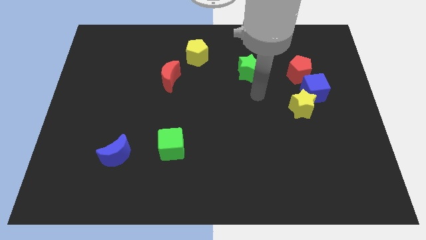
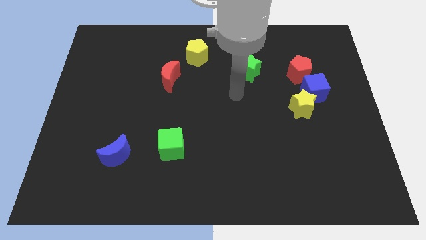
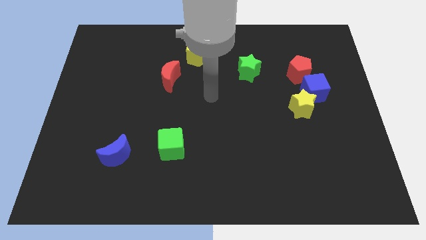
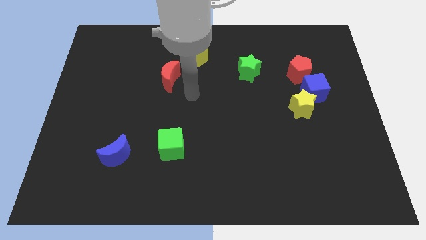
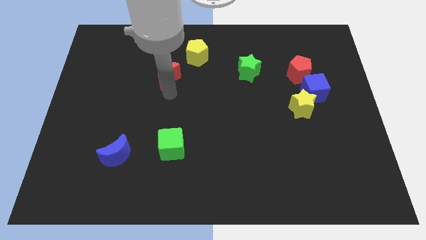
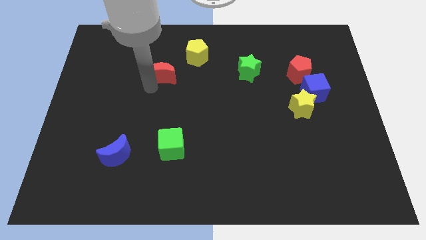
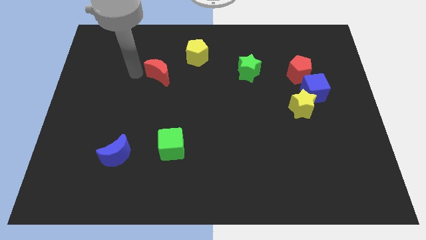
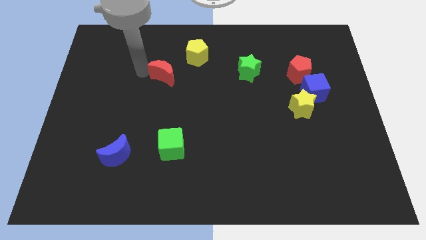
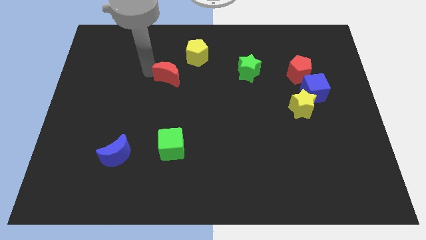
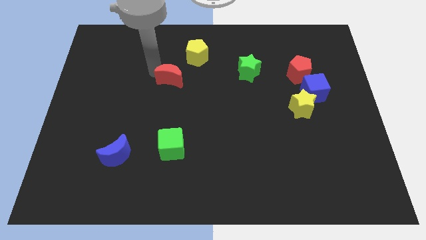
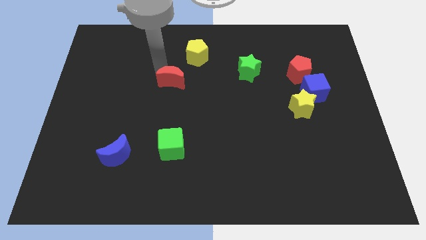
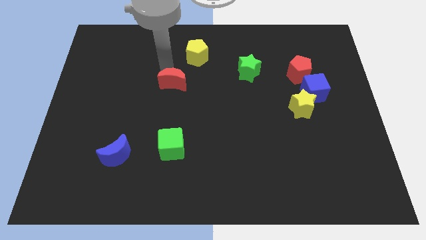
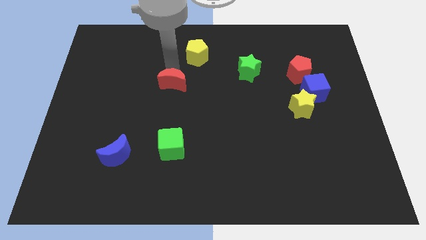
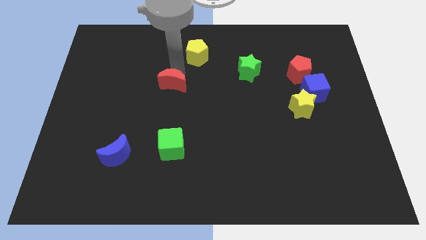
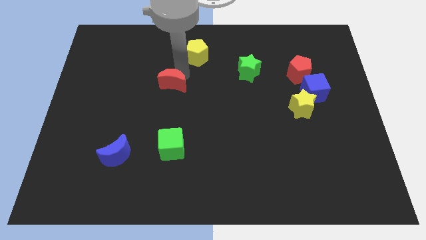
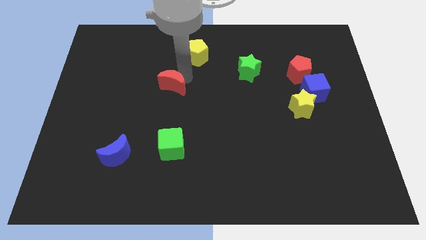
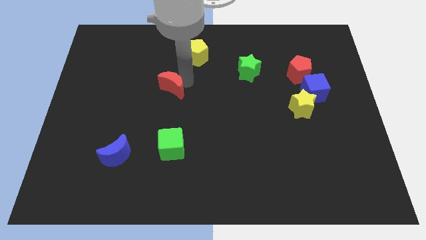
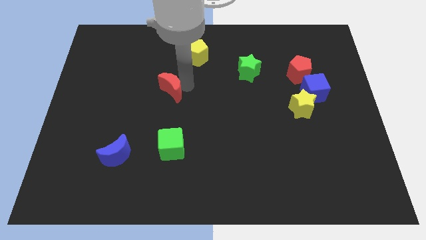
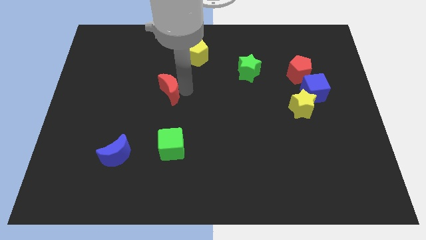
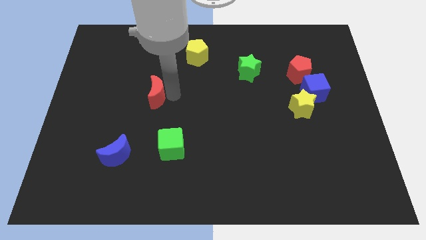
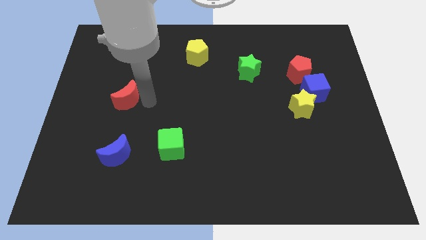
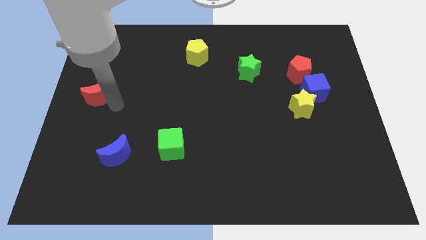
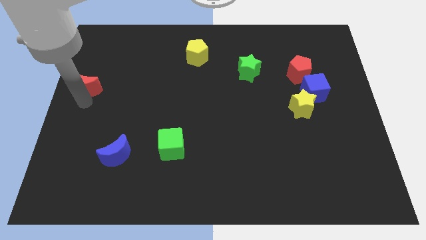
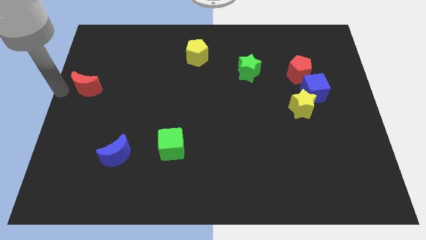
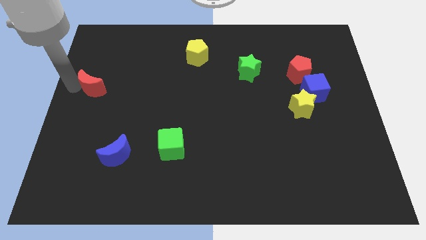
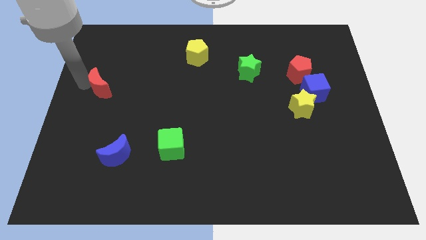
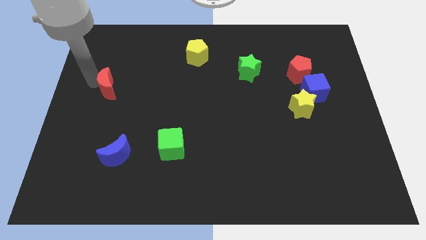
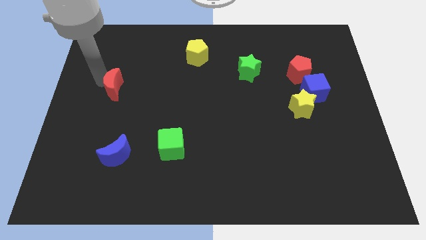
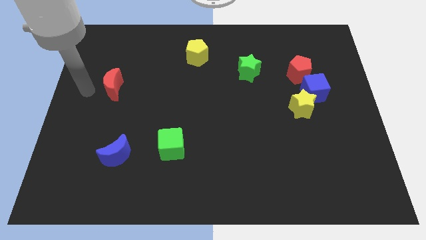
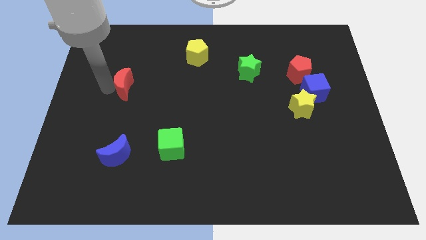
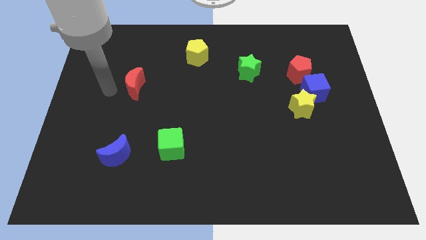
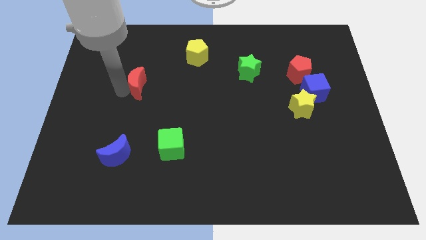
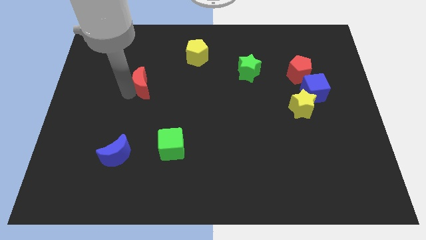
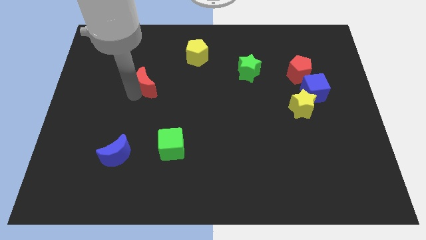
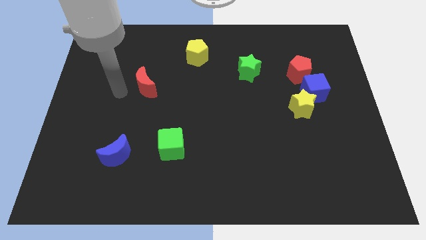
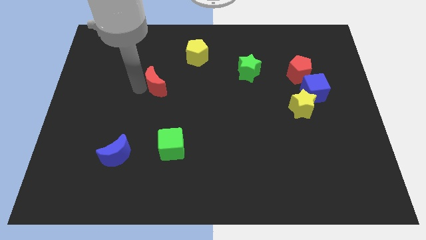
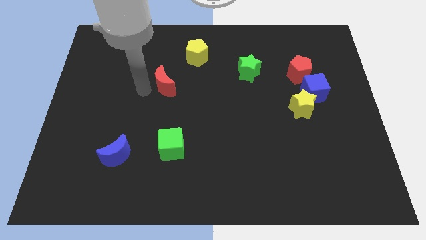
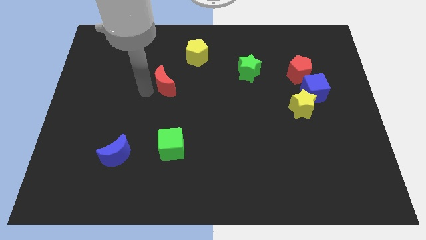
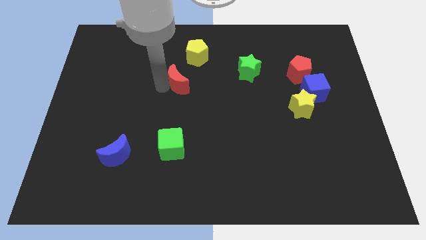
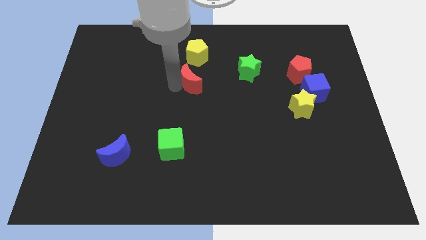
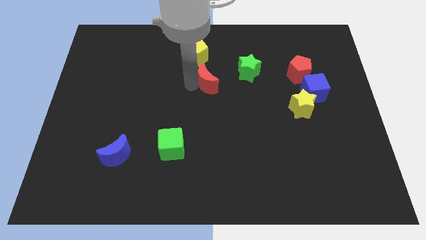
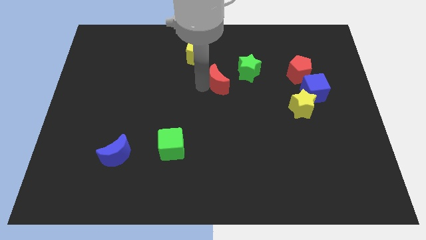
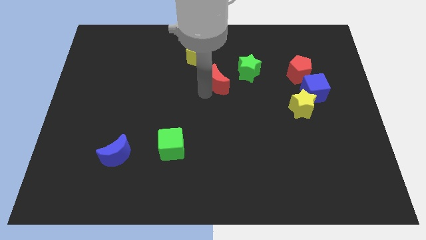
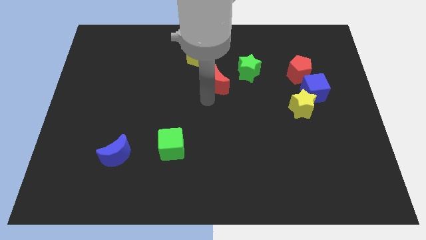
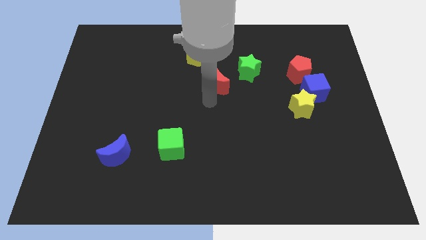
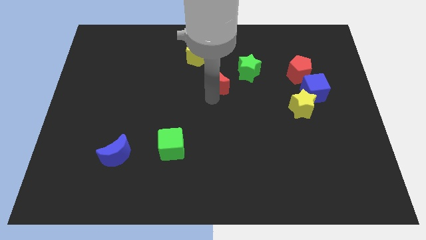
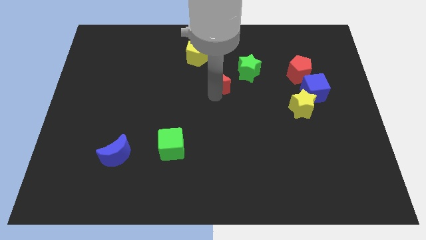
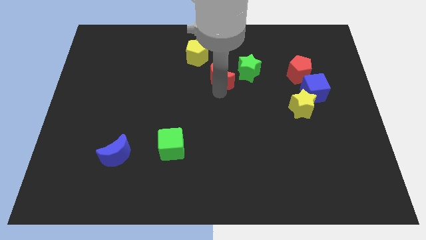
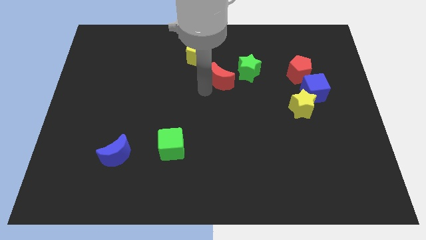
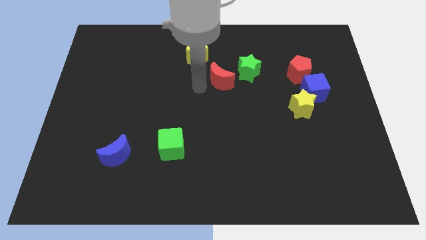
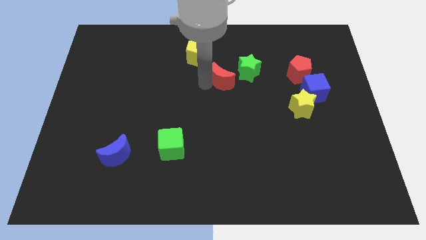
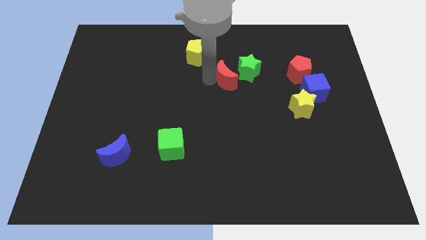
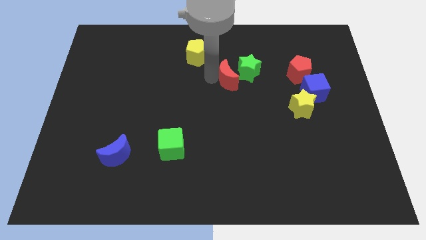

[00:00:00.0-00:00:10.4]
move the red moon next to the green star

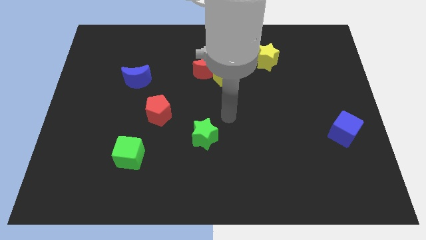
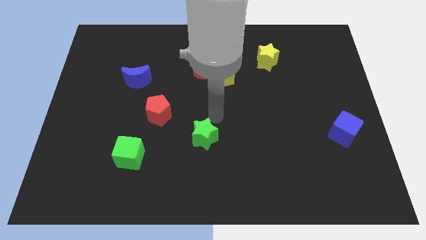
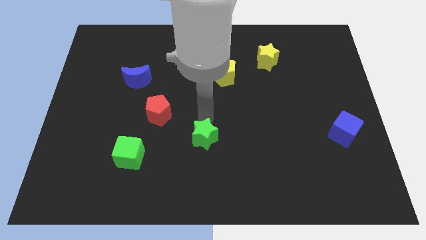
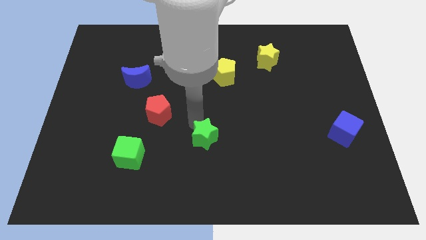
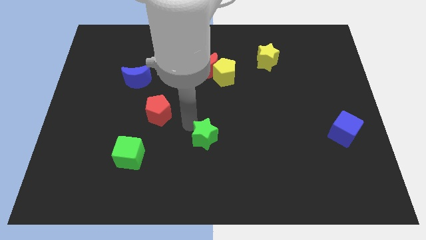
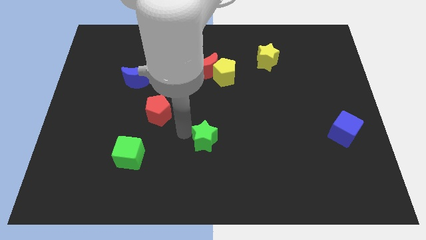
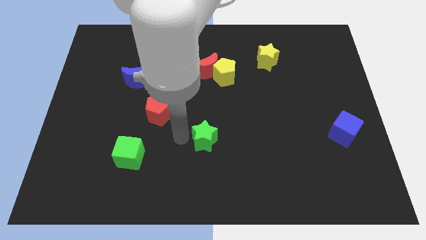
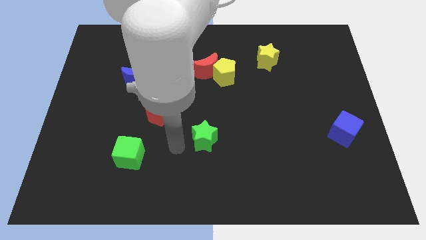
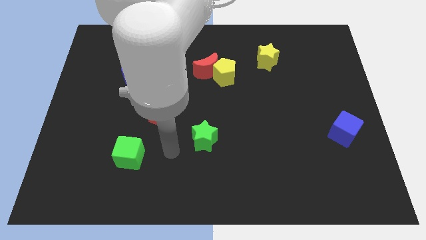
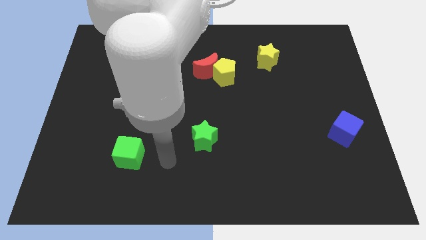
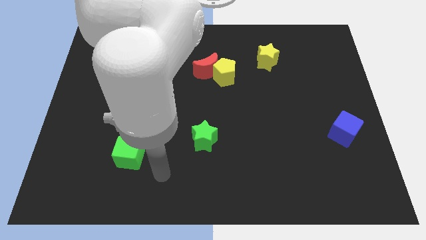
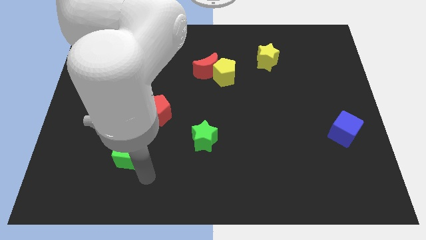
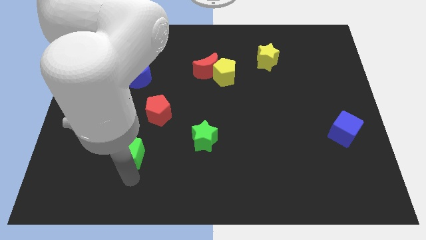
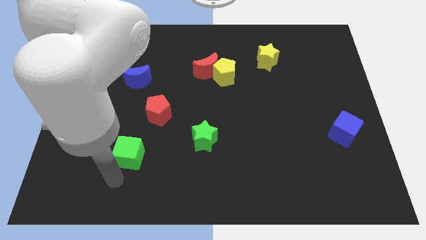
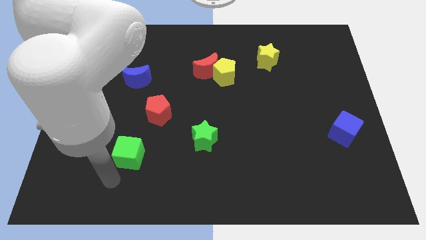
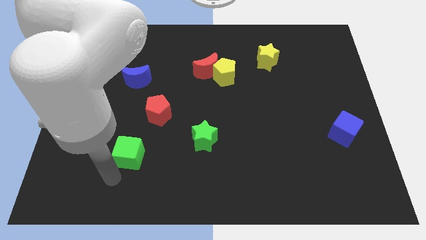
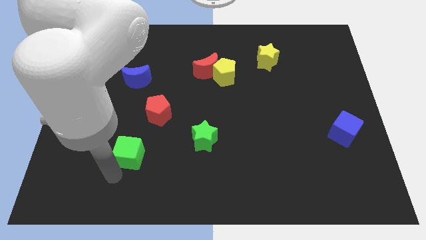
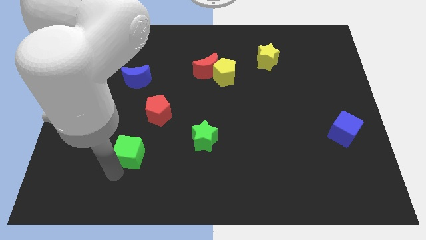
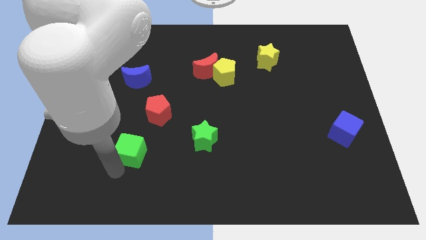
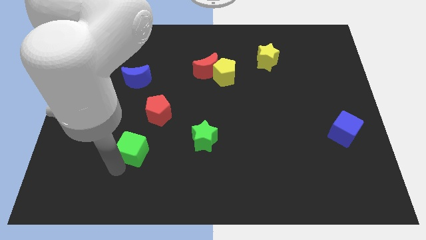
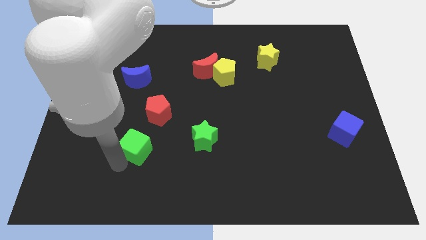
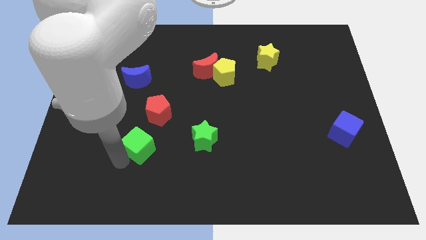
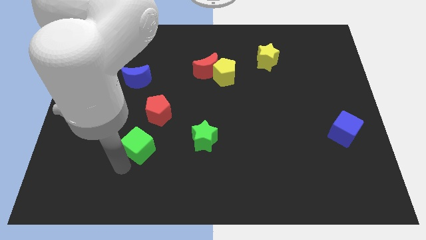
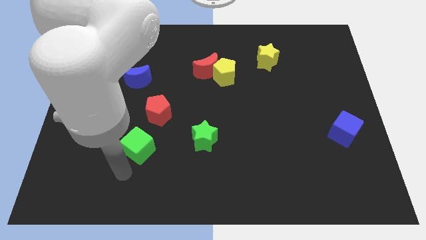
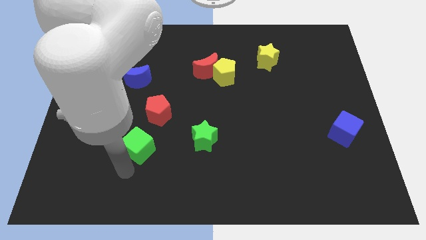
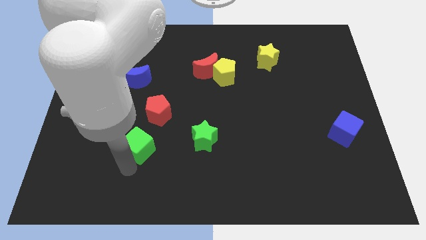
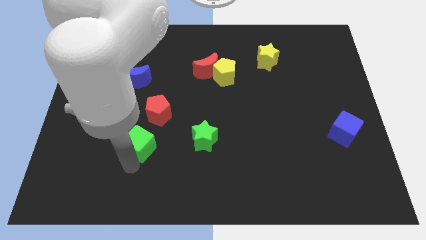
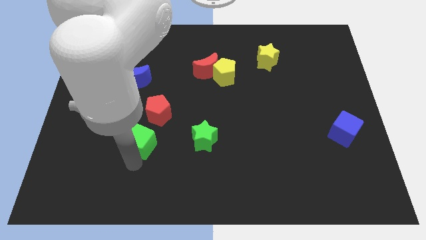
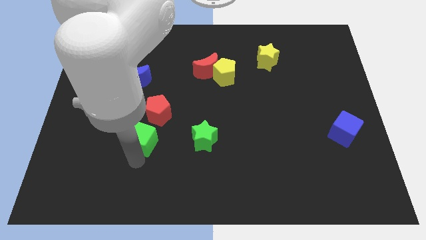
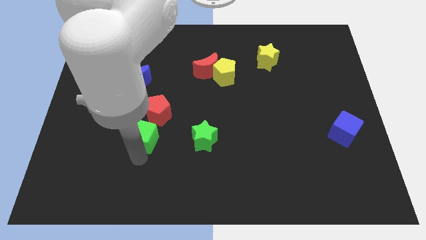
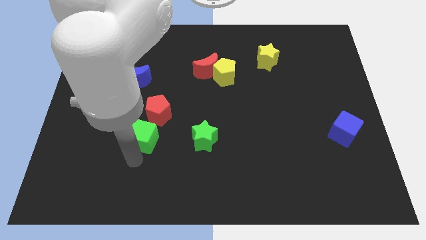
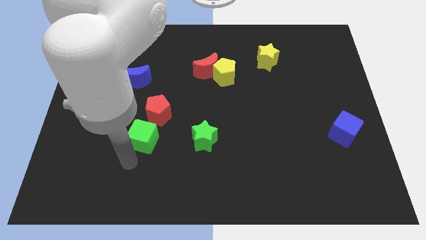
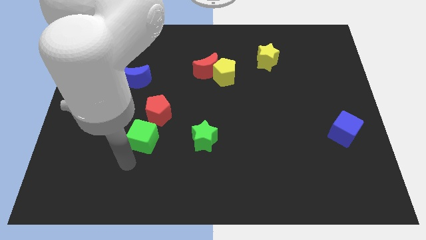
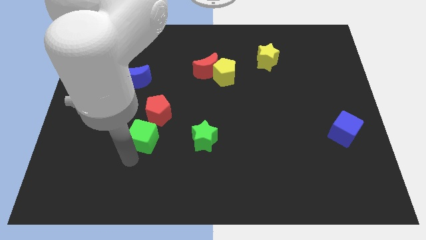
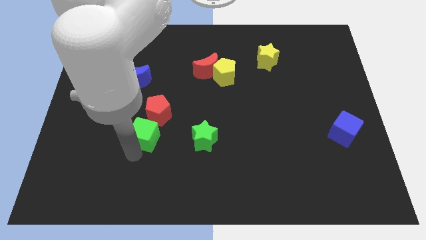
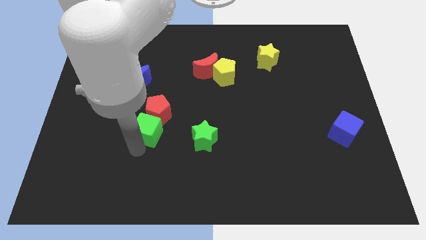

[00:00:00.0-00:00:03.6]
push the green cube to the red pentagon
